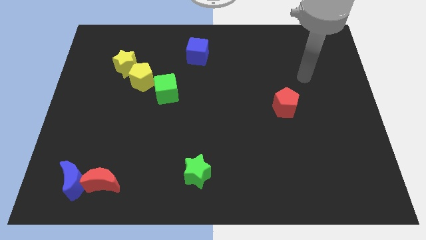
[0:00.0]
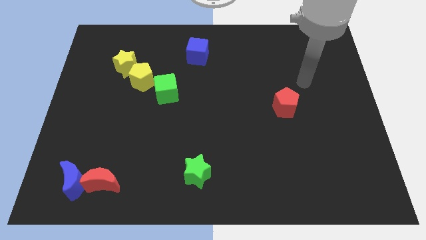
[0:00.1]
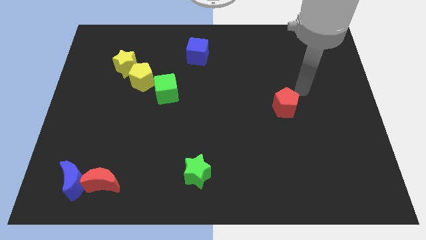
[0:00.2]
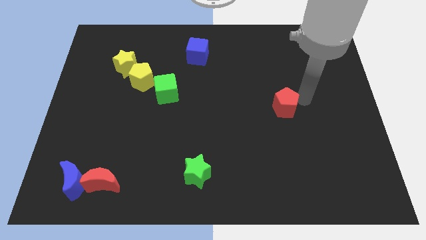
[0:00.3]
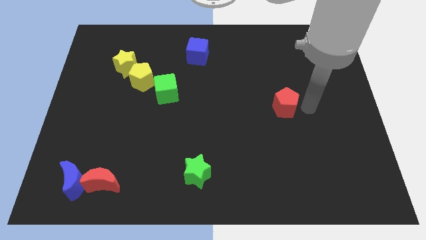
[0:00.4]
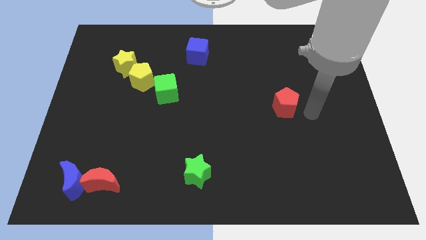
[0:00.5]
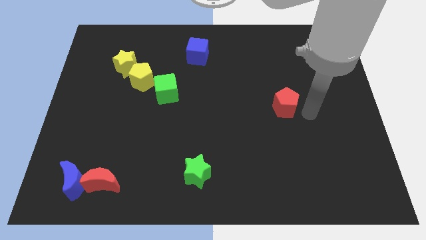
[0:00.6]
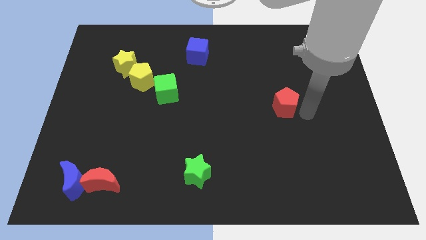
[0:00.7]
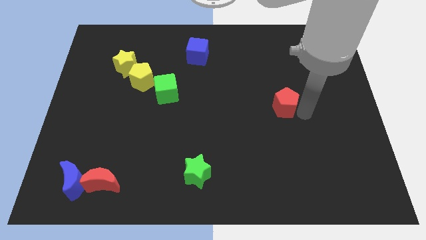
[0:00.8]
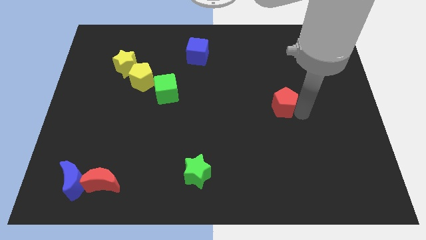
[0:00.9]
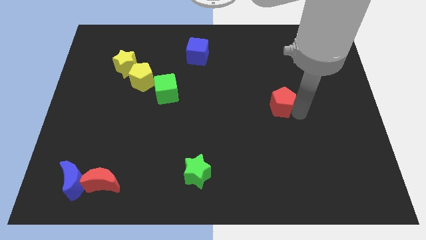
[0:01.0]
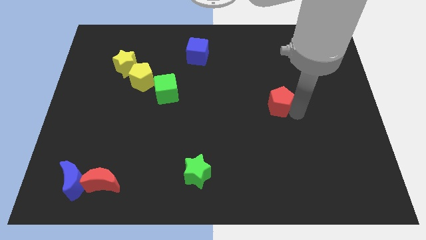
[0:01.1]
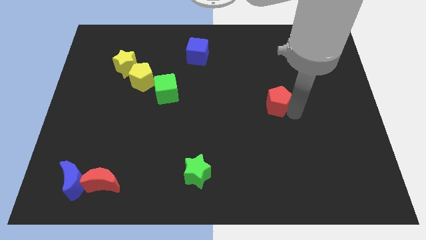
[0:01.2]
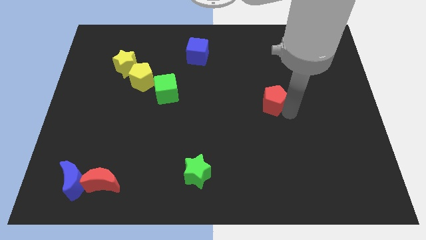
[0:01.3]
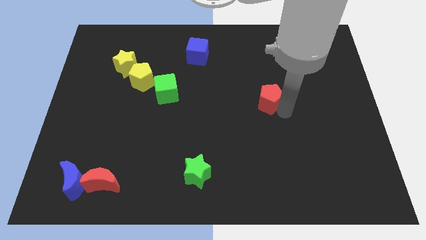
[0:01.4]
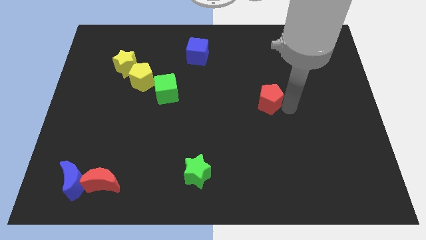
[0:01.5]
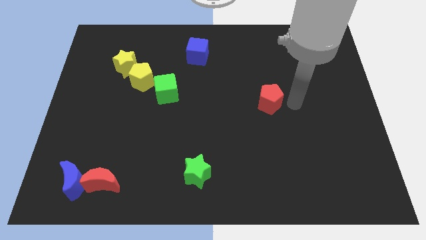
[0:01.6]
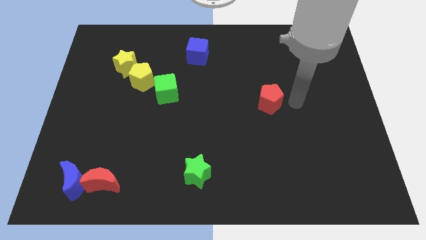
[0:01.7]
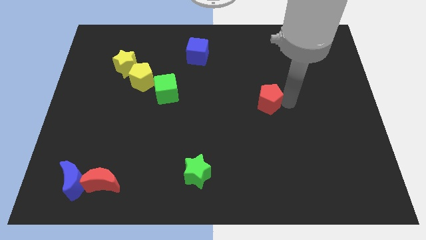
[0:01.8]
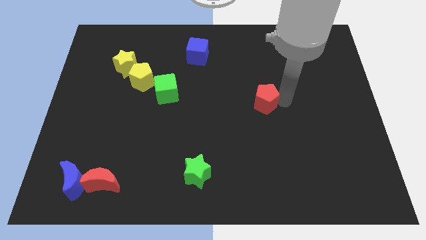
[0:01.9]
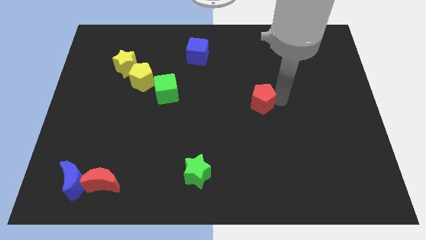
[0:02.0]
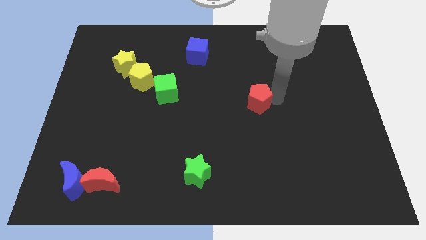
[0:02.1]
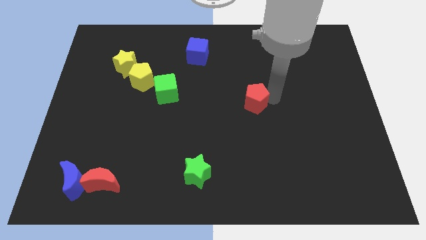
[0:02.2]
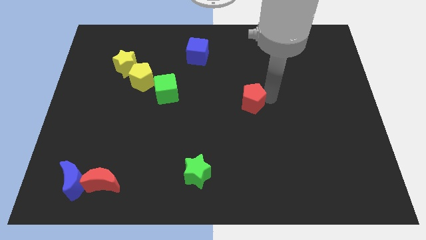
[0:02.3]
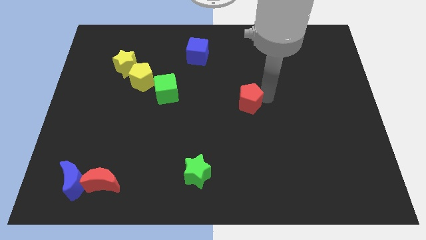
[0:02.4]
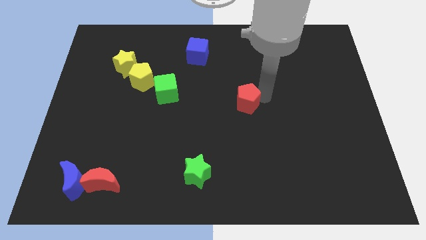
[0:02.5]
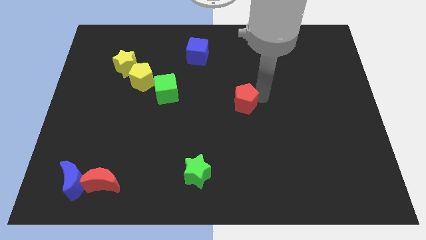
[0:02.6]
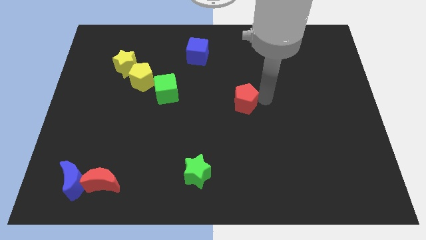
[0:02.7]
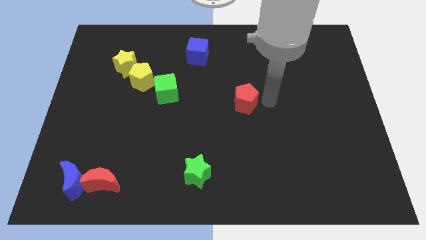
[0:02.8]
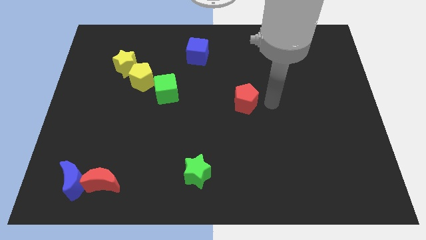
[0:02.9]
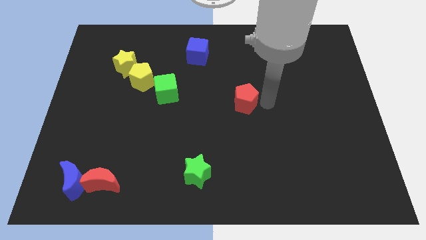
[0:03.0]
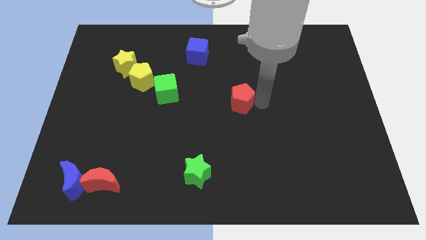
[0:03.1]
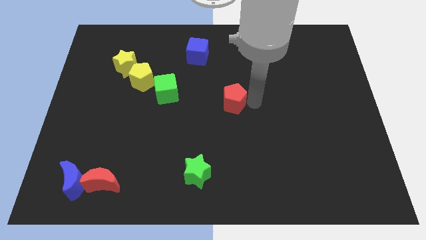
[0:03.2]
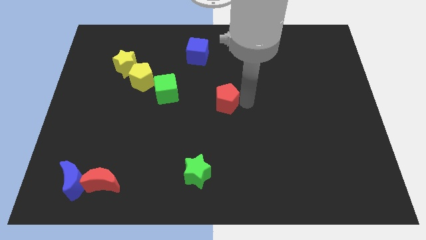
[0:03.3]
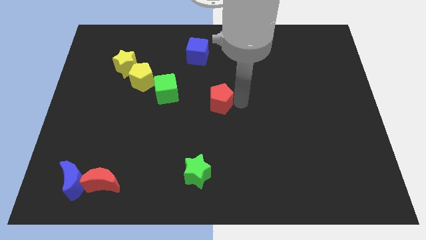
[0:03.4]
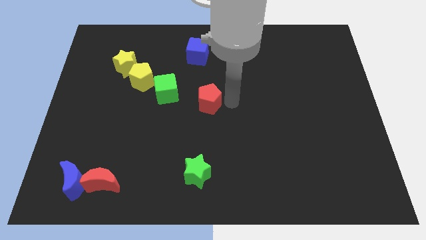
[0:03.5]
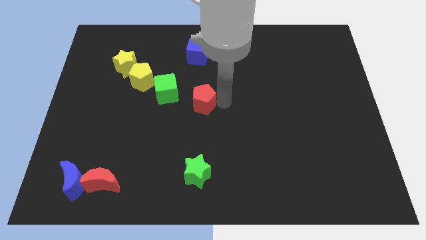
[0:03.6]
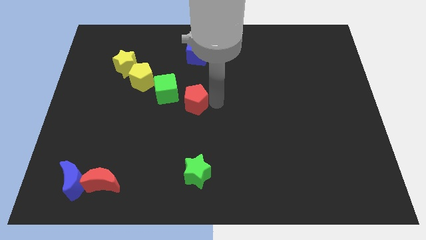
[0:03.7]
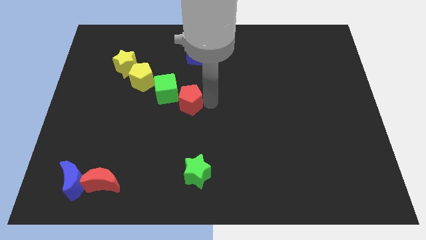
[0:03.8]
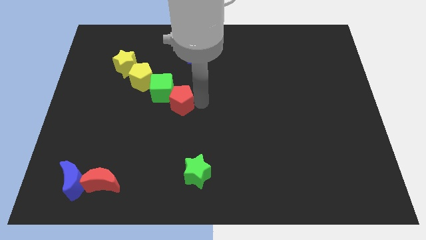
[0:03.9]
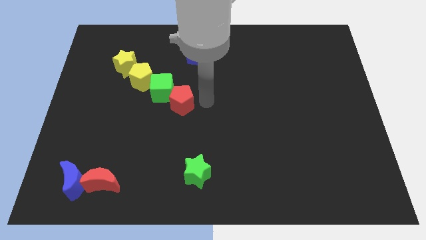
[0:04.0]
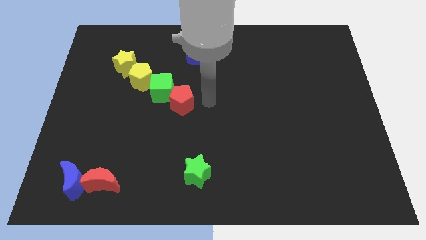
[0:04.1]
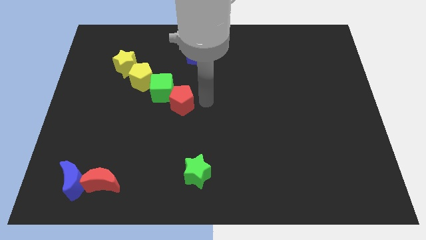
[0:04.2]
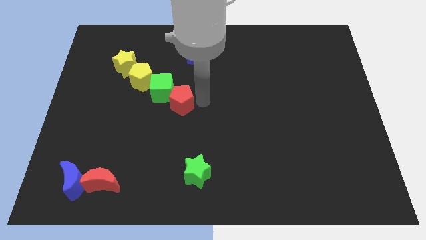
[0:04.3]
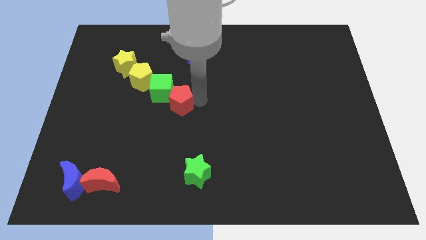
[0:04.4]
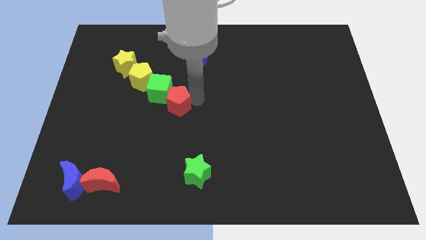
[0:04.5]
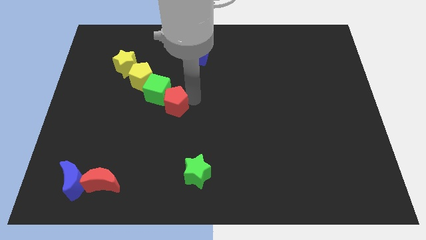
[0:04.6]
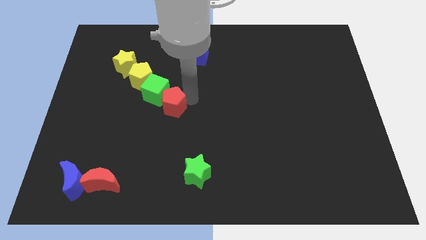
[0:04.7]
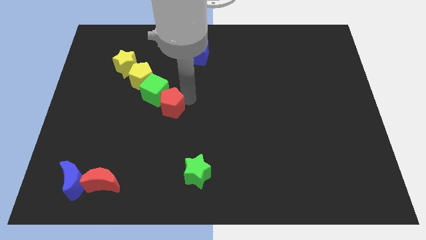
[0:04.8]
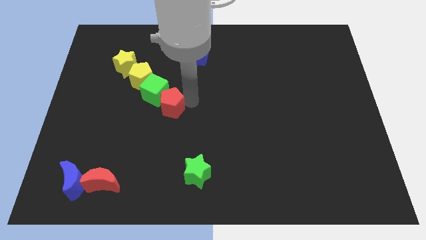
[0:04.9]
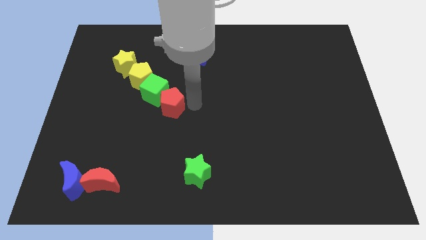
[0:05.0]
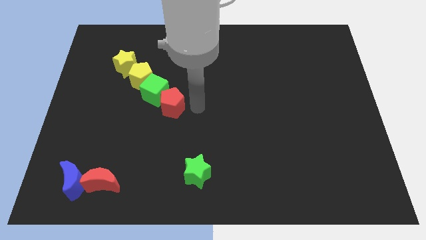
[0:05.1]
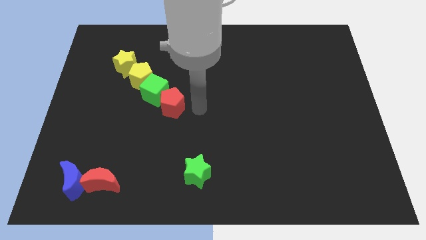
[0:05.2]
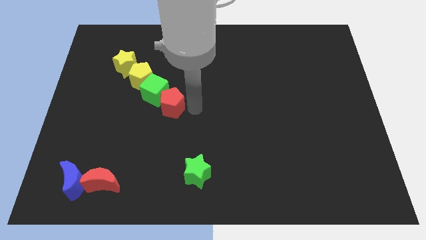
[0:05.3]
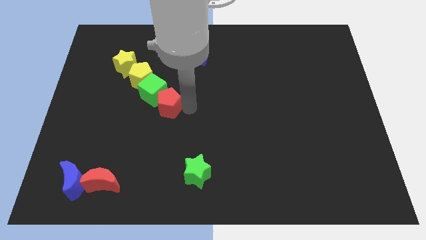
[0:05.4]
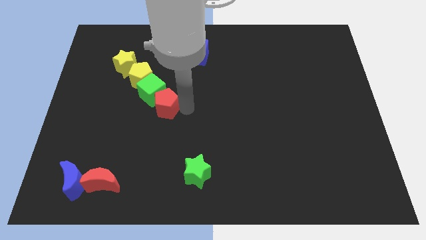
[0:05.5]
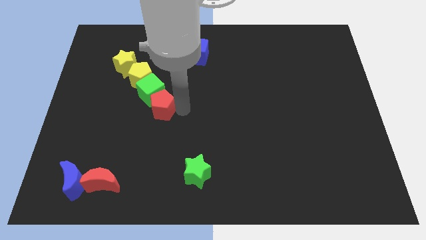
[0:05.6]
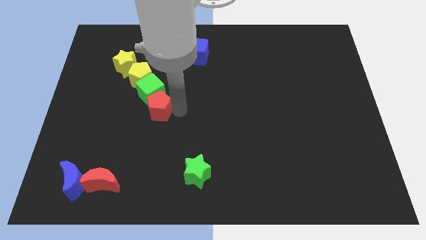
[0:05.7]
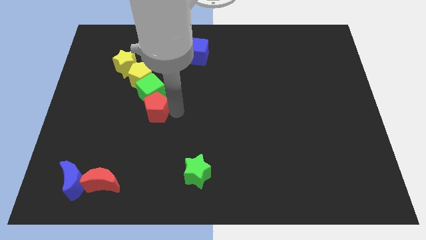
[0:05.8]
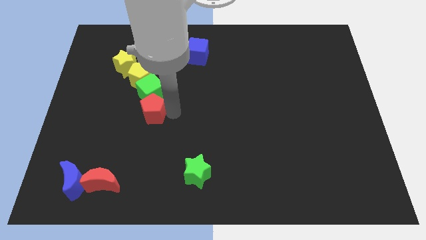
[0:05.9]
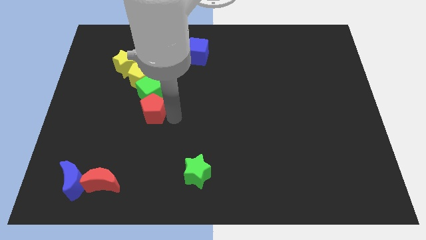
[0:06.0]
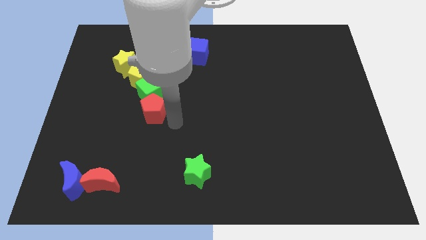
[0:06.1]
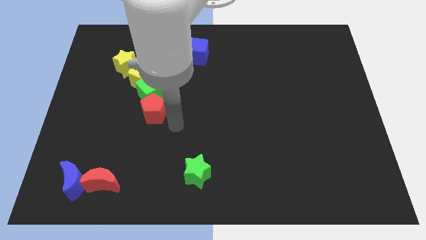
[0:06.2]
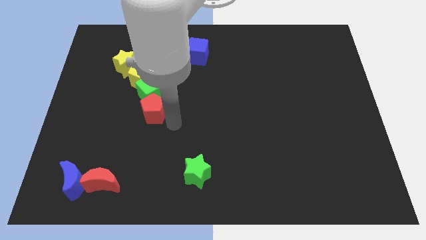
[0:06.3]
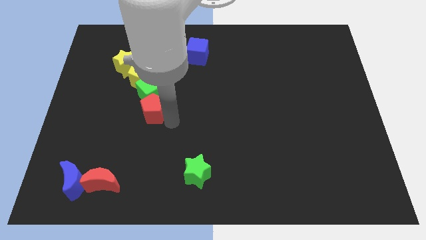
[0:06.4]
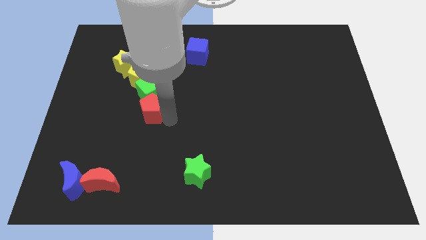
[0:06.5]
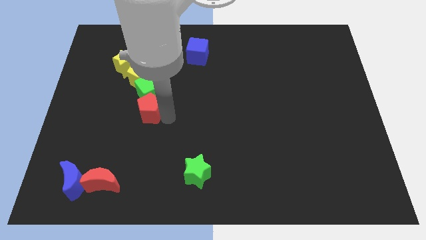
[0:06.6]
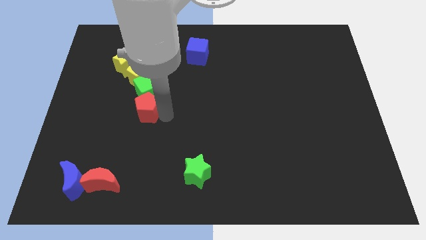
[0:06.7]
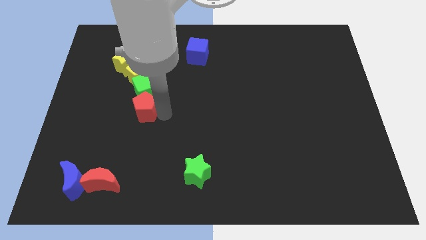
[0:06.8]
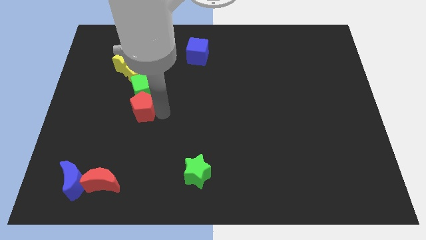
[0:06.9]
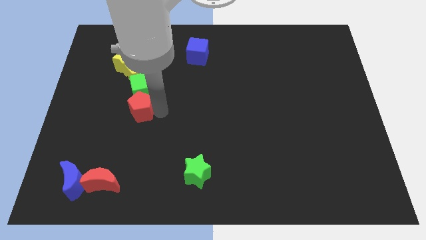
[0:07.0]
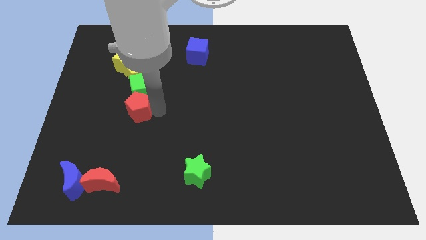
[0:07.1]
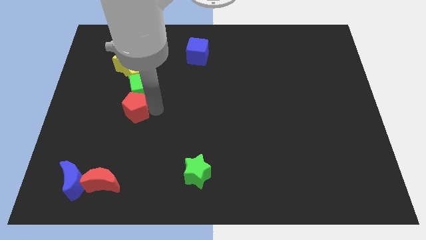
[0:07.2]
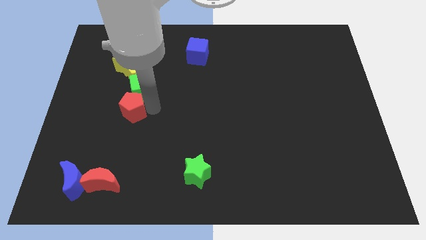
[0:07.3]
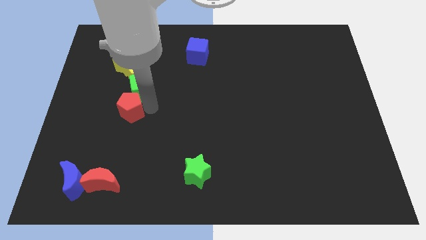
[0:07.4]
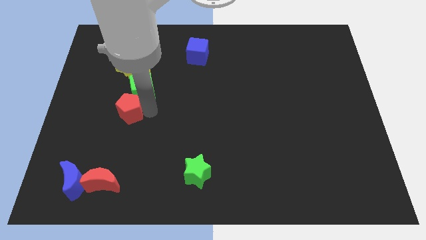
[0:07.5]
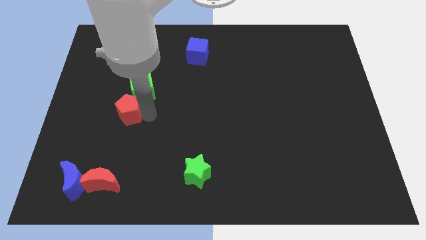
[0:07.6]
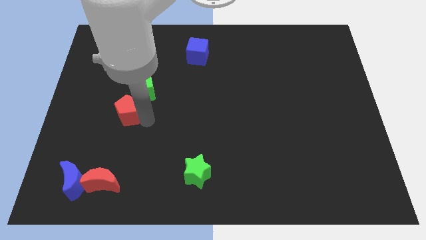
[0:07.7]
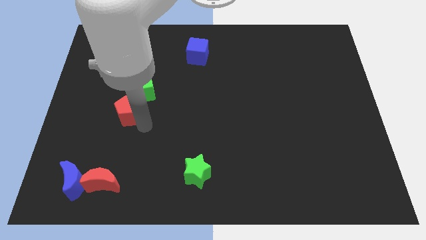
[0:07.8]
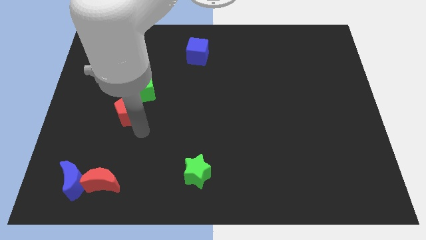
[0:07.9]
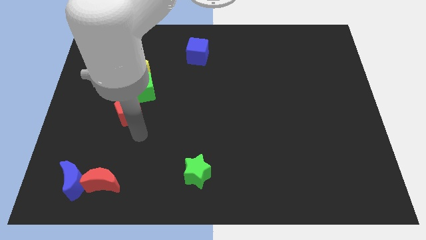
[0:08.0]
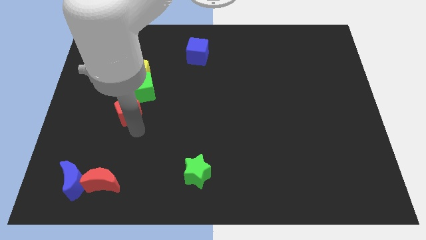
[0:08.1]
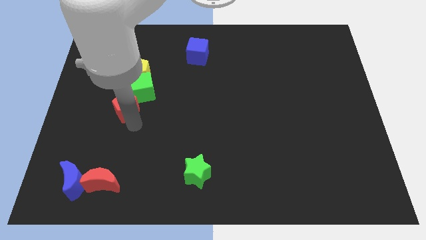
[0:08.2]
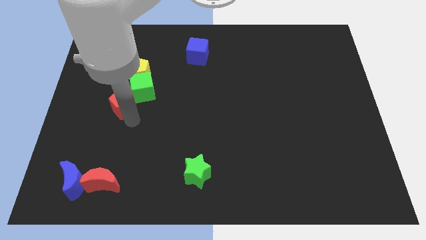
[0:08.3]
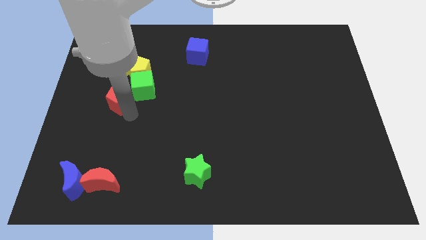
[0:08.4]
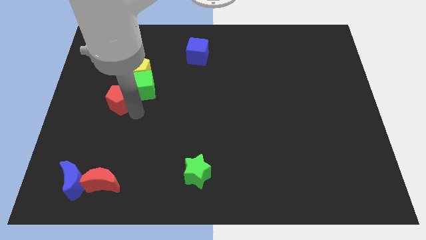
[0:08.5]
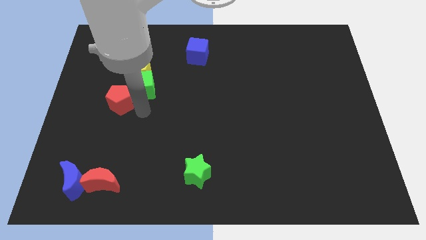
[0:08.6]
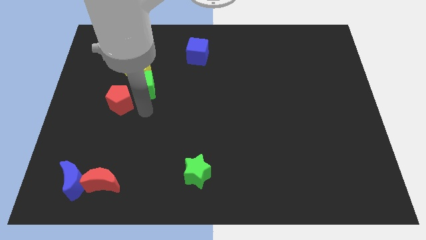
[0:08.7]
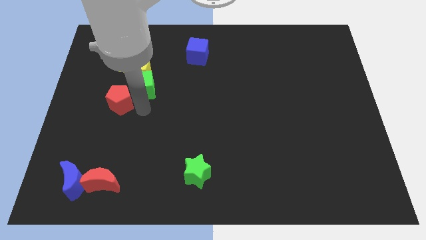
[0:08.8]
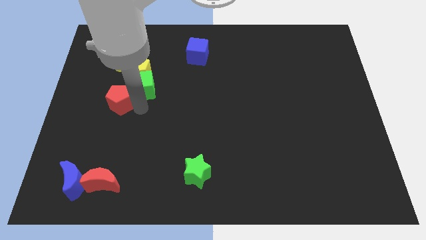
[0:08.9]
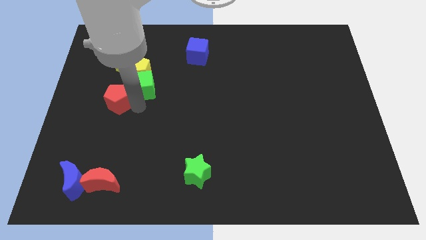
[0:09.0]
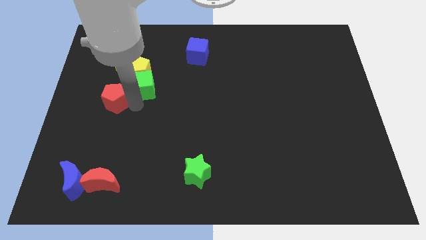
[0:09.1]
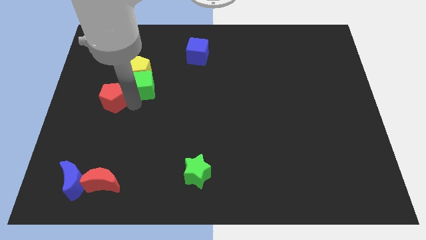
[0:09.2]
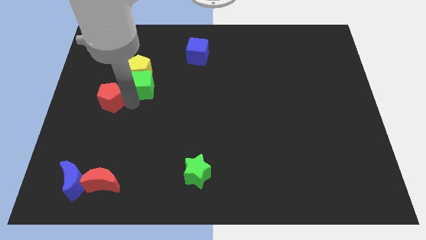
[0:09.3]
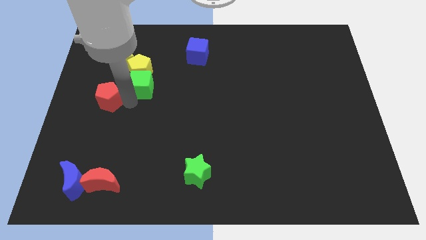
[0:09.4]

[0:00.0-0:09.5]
move the red pentagon to the left side of the board
